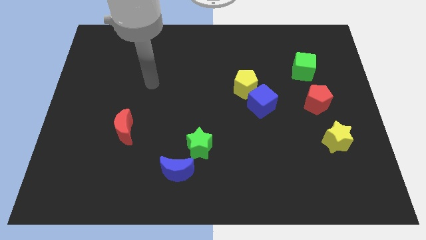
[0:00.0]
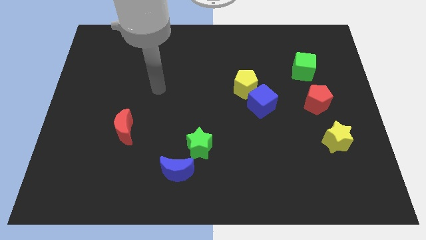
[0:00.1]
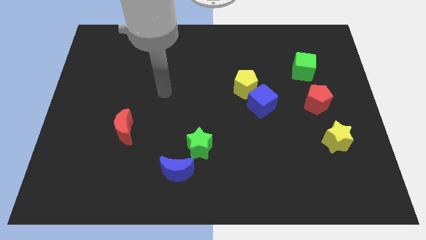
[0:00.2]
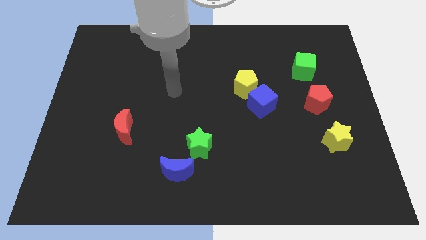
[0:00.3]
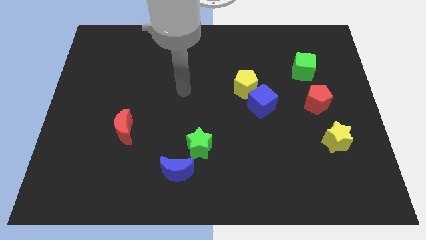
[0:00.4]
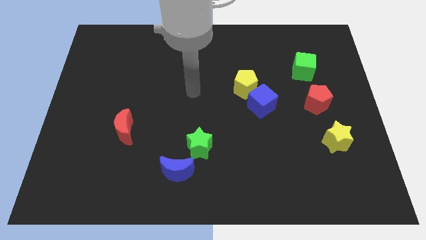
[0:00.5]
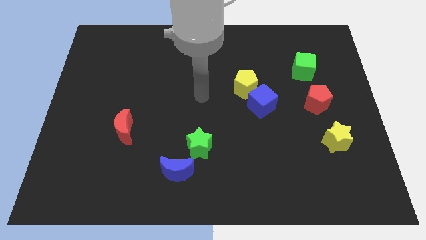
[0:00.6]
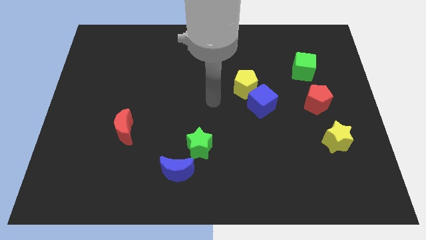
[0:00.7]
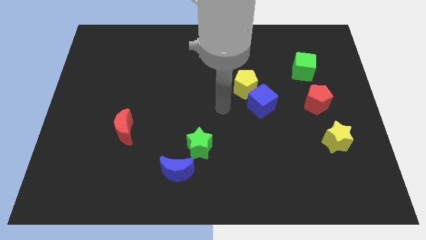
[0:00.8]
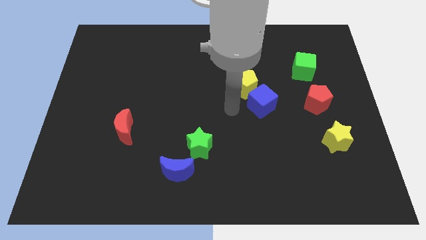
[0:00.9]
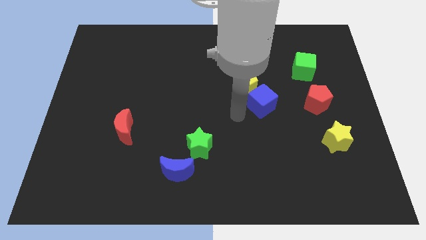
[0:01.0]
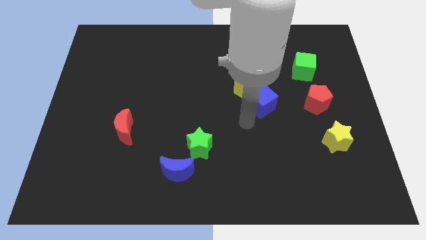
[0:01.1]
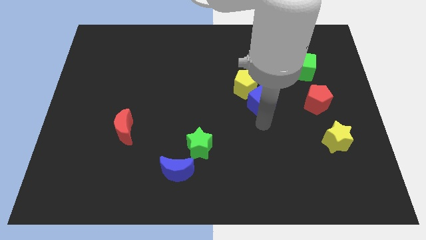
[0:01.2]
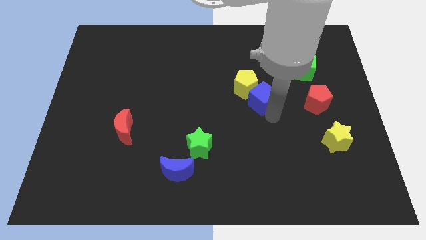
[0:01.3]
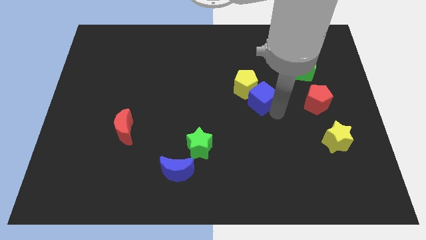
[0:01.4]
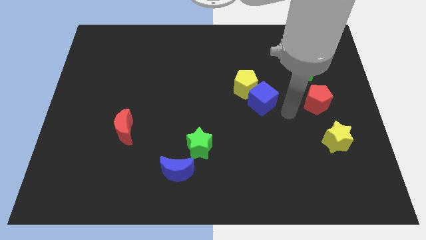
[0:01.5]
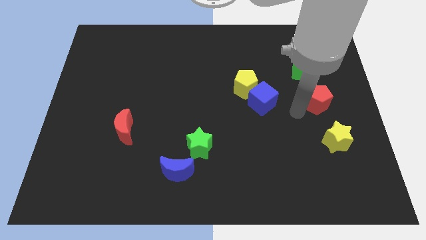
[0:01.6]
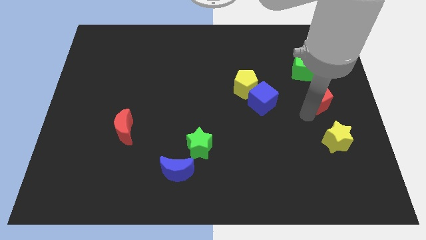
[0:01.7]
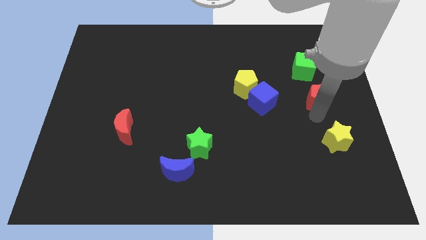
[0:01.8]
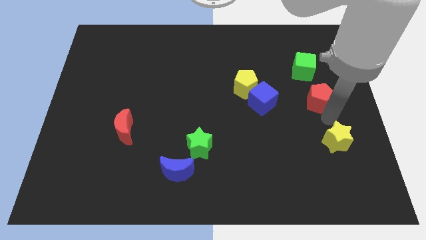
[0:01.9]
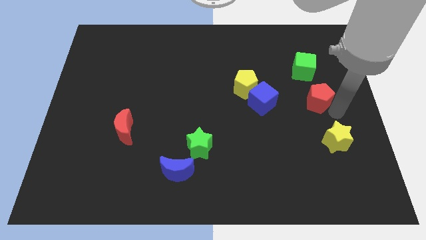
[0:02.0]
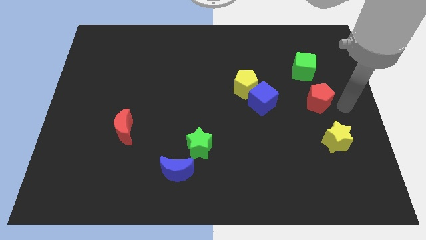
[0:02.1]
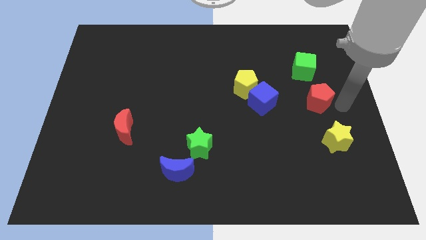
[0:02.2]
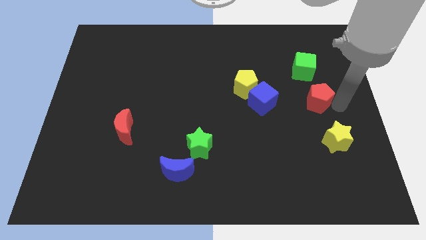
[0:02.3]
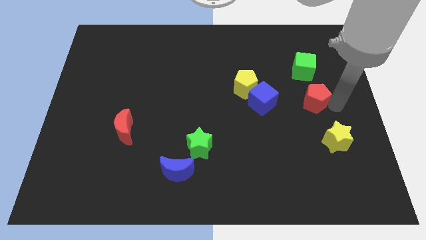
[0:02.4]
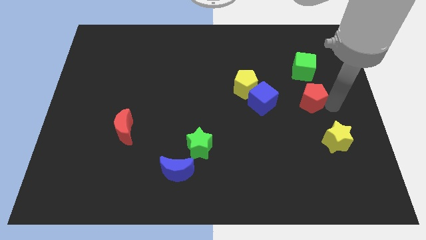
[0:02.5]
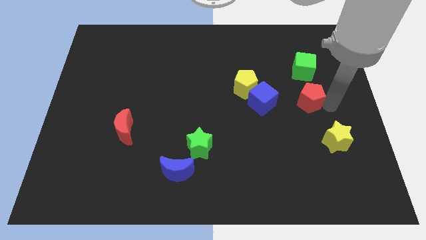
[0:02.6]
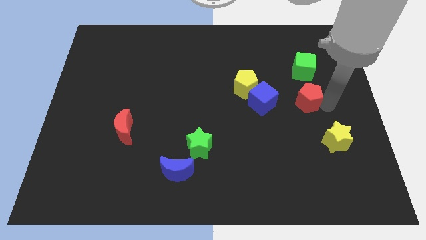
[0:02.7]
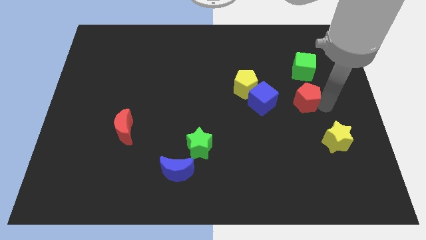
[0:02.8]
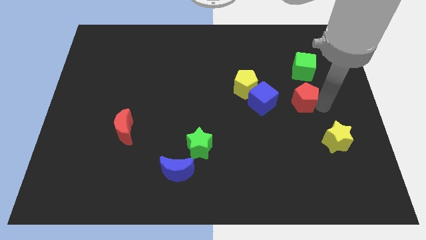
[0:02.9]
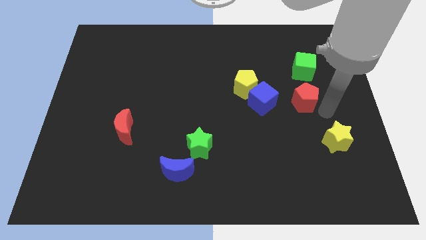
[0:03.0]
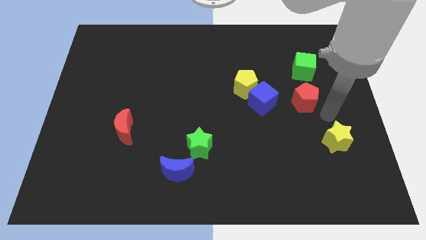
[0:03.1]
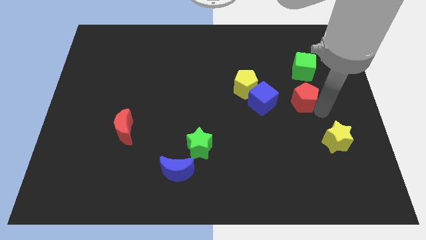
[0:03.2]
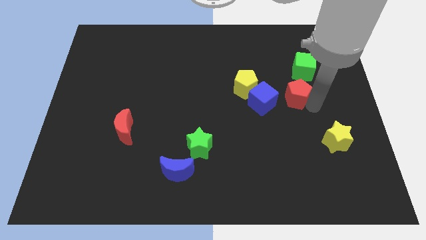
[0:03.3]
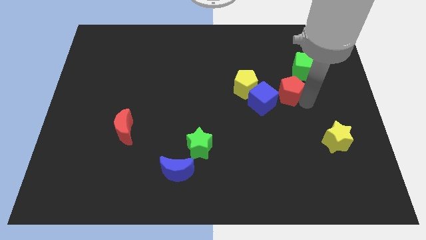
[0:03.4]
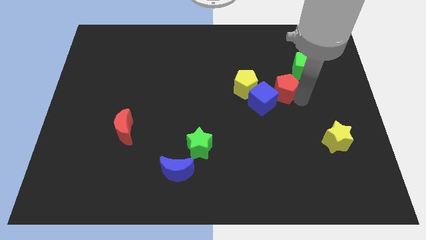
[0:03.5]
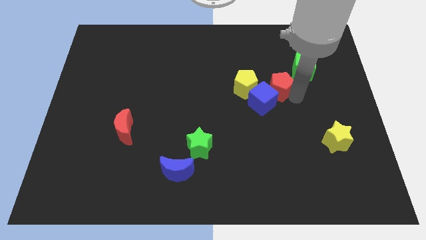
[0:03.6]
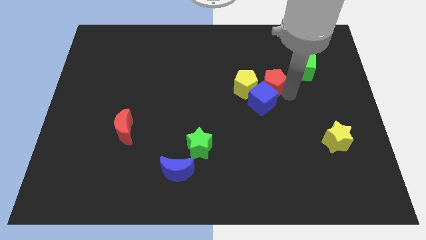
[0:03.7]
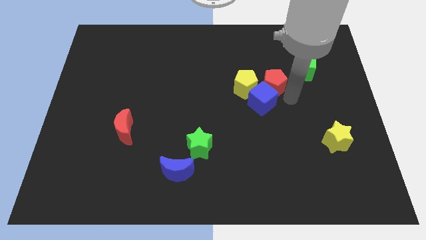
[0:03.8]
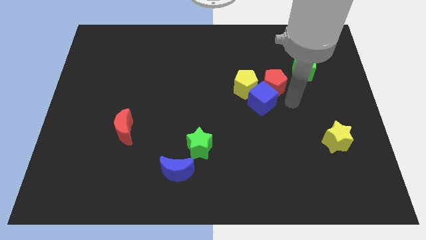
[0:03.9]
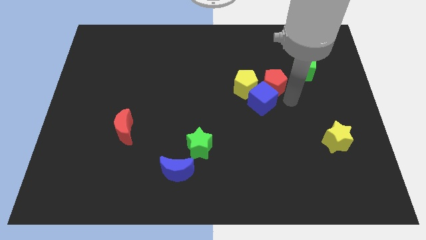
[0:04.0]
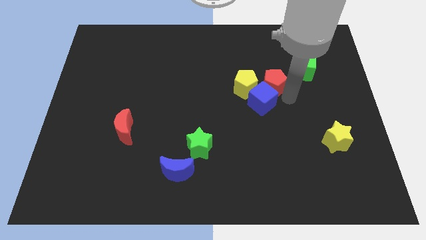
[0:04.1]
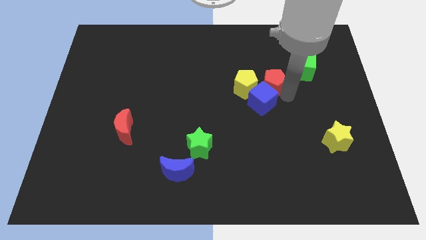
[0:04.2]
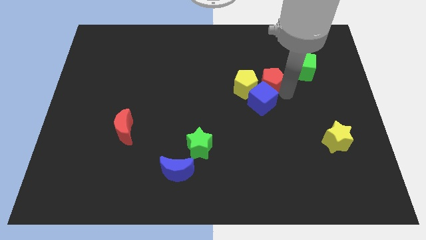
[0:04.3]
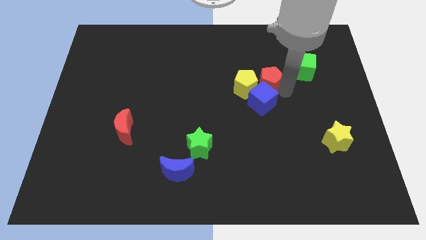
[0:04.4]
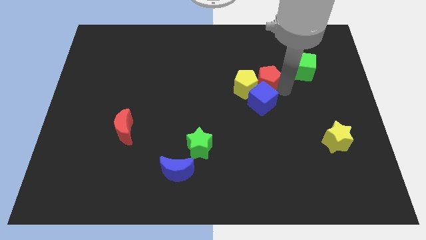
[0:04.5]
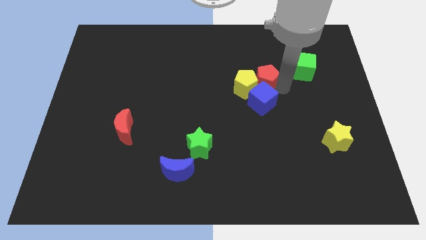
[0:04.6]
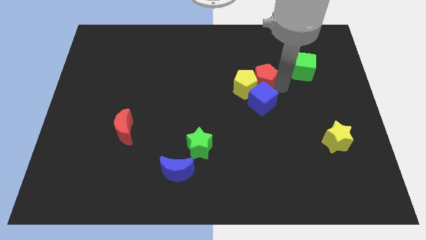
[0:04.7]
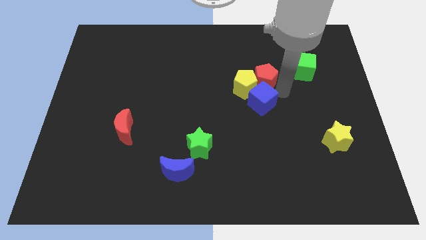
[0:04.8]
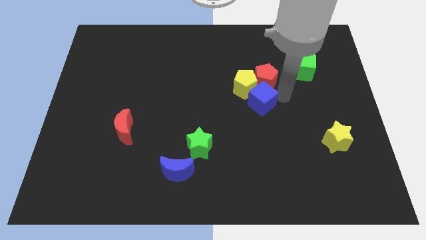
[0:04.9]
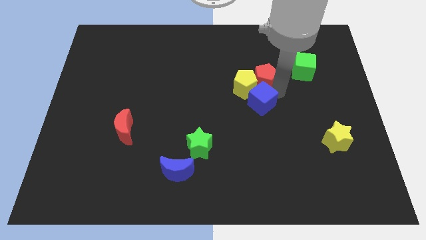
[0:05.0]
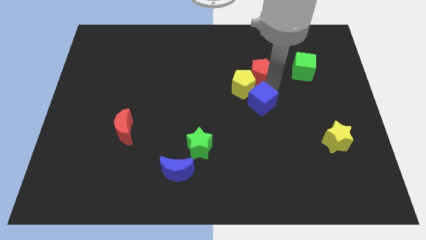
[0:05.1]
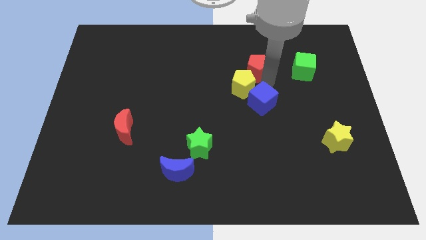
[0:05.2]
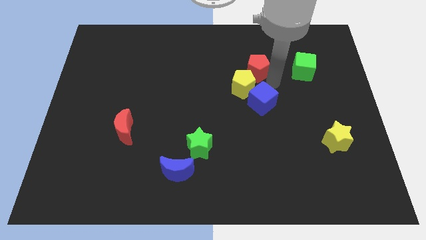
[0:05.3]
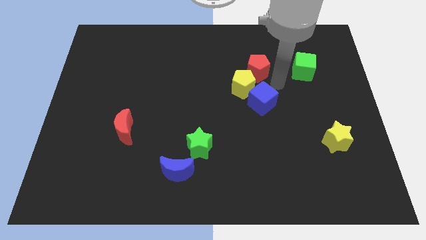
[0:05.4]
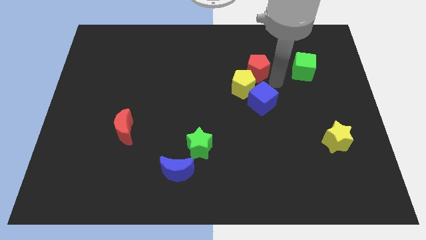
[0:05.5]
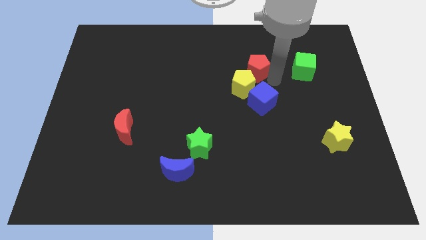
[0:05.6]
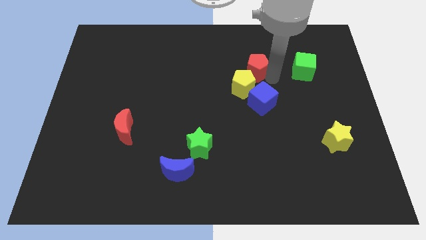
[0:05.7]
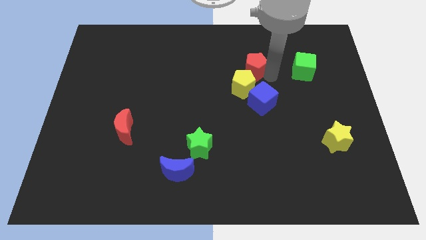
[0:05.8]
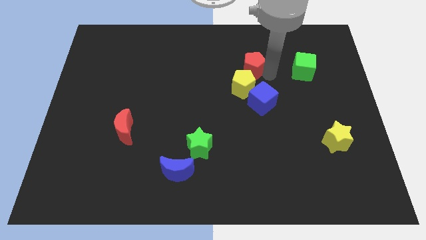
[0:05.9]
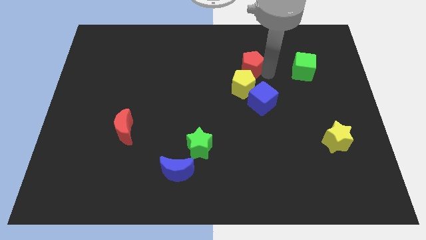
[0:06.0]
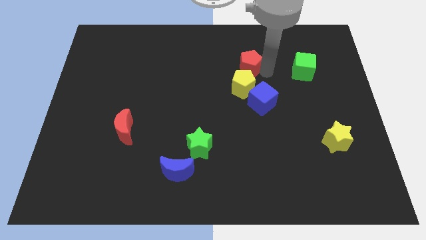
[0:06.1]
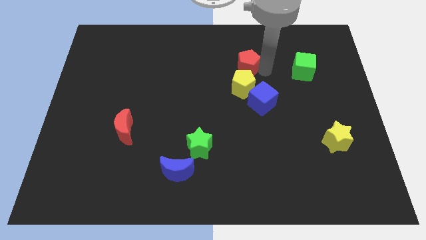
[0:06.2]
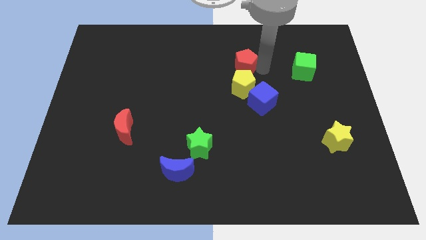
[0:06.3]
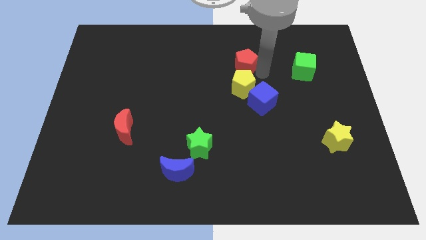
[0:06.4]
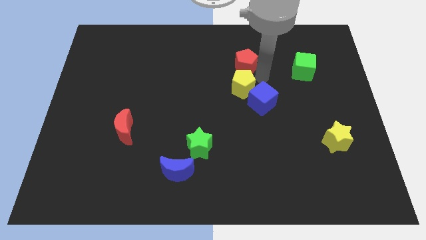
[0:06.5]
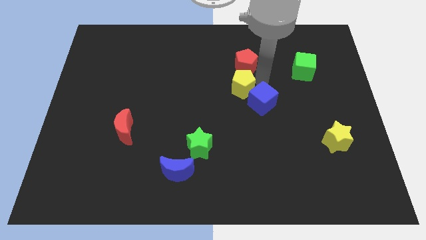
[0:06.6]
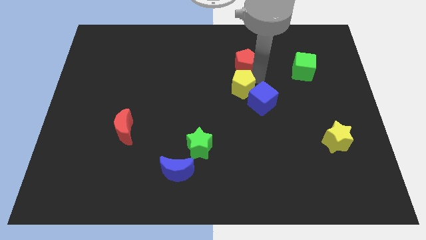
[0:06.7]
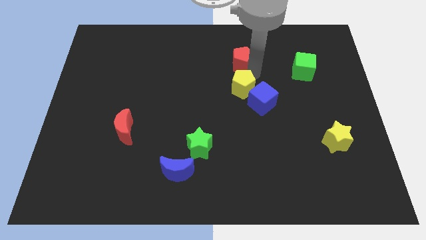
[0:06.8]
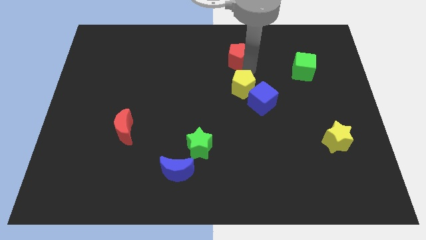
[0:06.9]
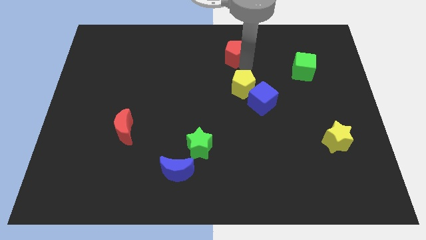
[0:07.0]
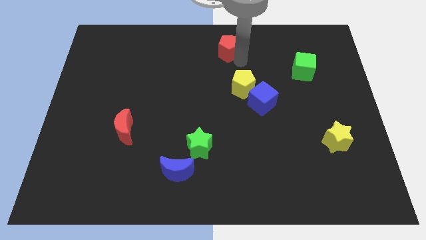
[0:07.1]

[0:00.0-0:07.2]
put the red pentagon to the towards your base
